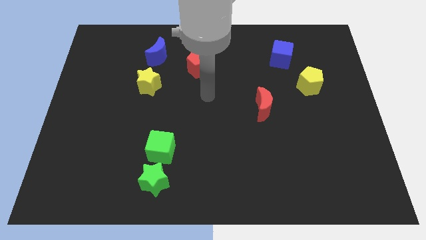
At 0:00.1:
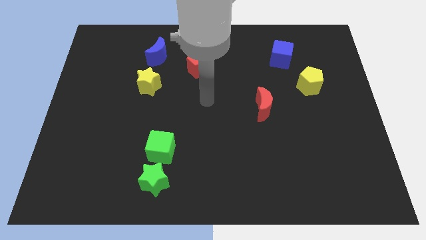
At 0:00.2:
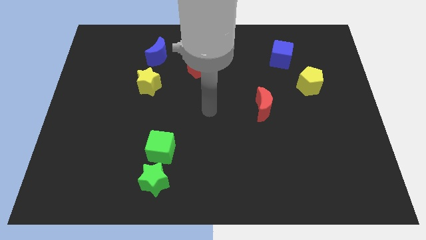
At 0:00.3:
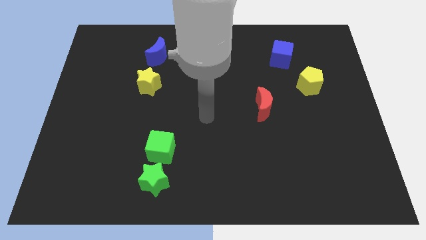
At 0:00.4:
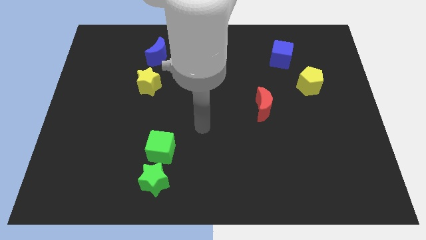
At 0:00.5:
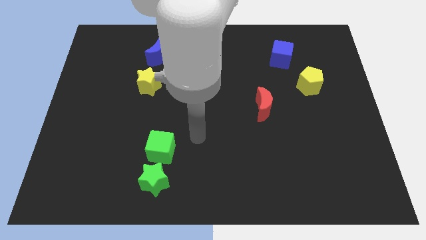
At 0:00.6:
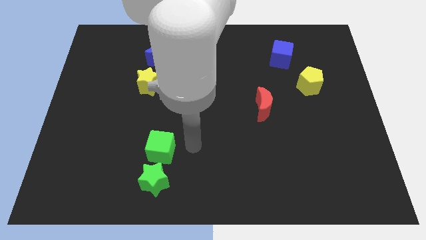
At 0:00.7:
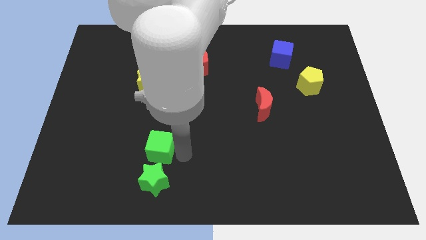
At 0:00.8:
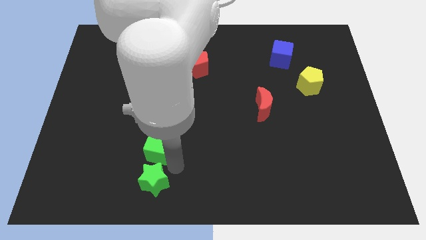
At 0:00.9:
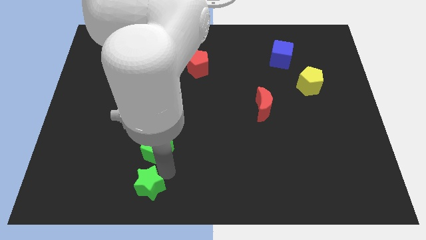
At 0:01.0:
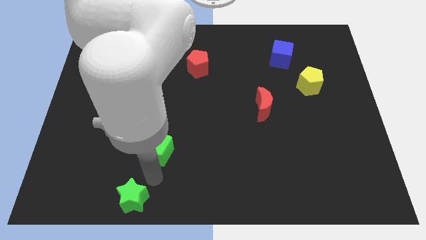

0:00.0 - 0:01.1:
pull the green cube apart from the green star

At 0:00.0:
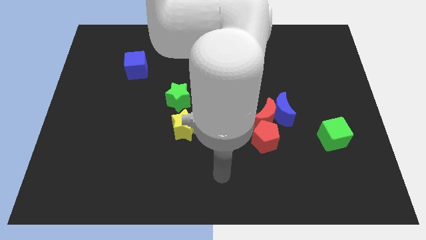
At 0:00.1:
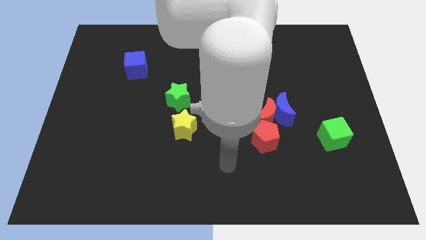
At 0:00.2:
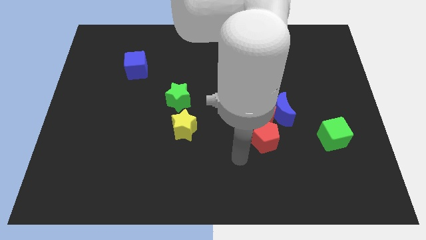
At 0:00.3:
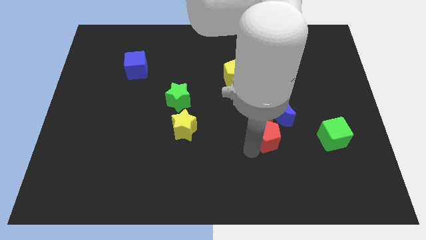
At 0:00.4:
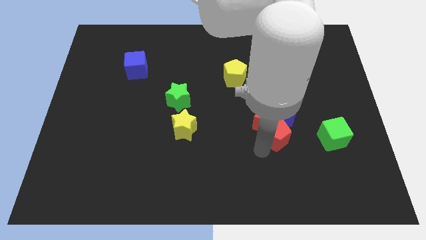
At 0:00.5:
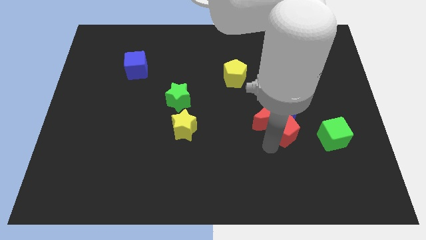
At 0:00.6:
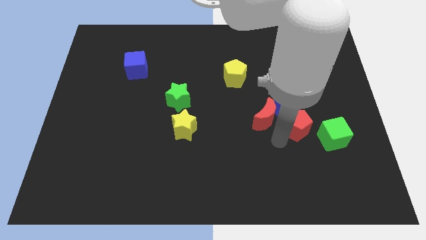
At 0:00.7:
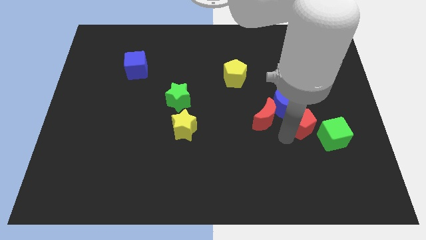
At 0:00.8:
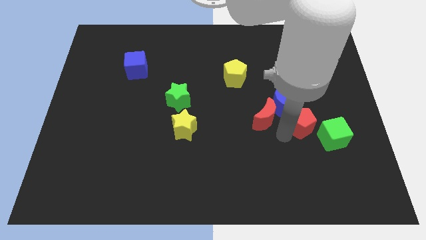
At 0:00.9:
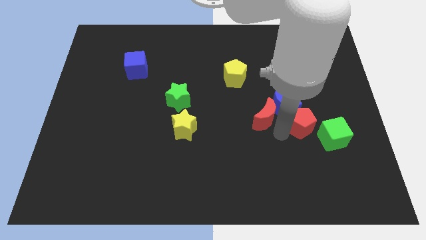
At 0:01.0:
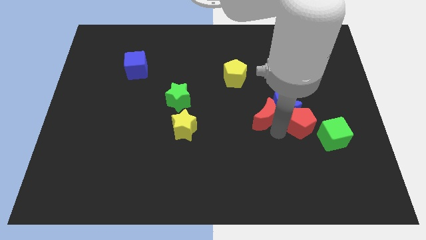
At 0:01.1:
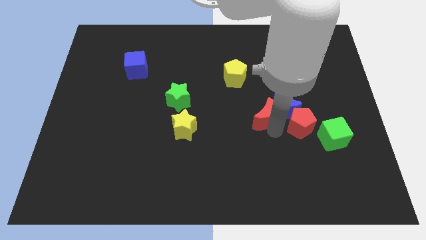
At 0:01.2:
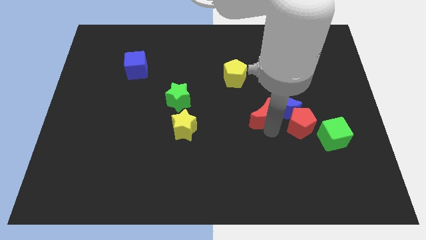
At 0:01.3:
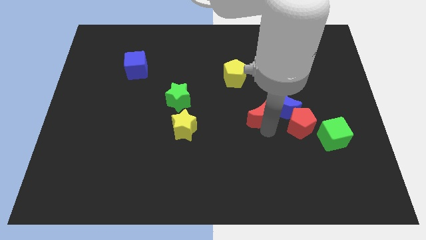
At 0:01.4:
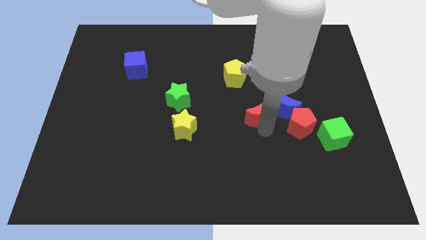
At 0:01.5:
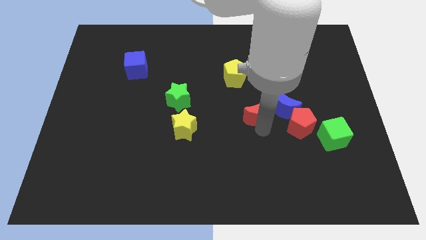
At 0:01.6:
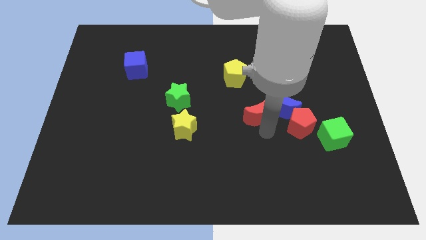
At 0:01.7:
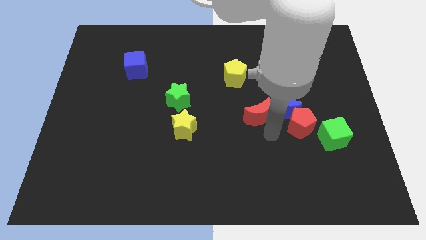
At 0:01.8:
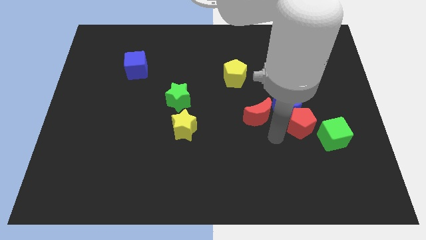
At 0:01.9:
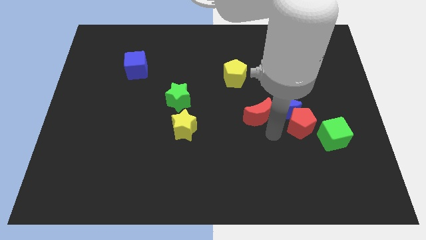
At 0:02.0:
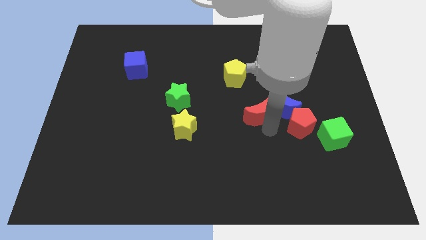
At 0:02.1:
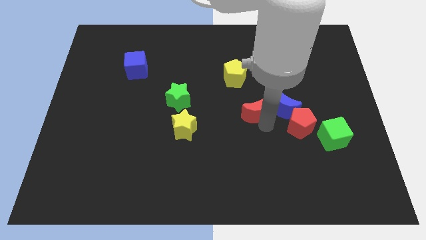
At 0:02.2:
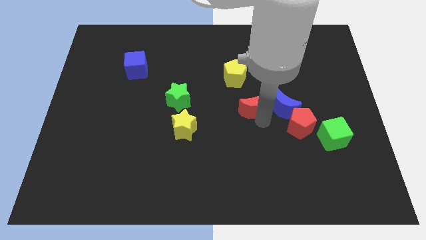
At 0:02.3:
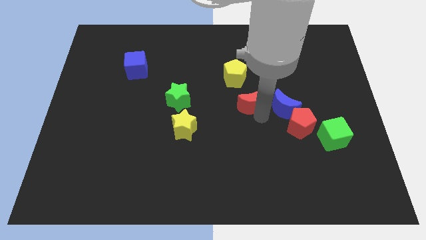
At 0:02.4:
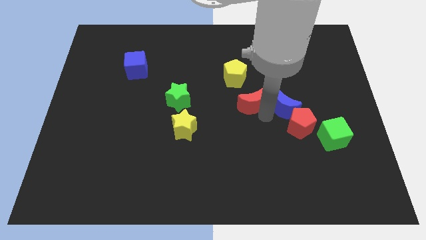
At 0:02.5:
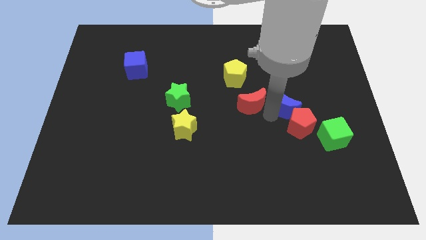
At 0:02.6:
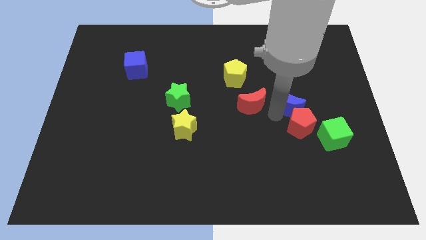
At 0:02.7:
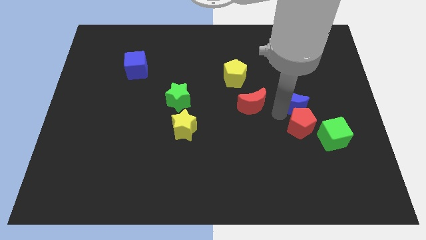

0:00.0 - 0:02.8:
separate the red moon from the blue moon and red pentagon

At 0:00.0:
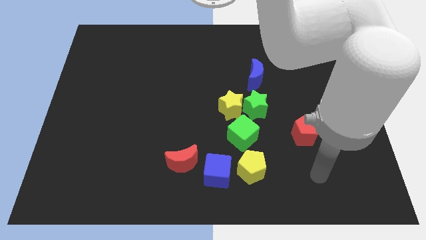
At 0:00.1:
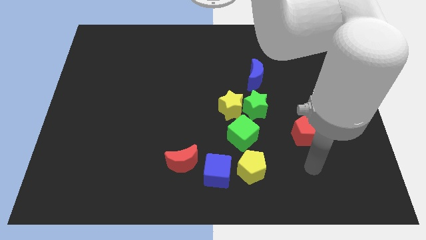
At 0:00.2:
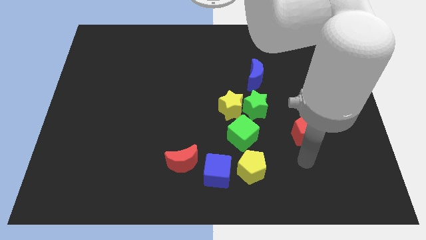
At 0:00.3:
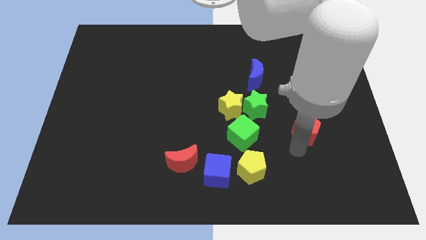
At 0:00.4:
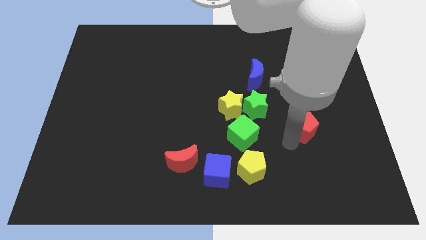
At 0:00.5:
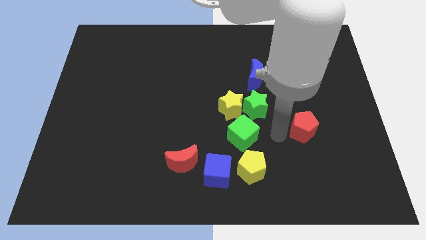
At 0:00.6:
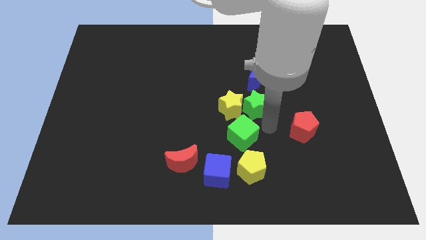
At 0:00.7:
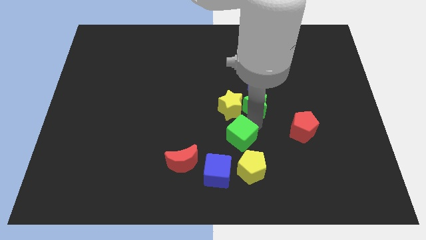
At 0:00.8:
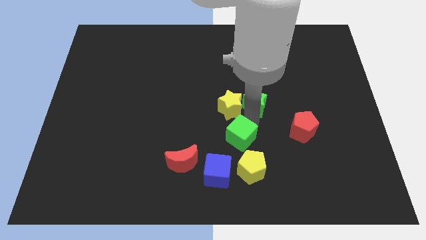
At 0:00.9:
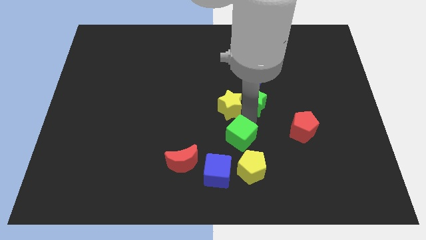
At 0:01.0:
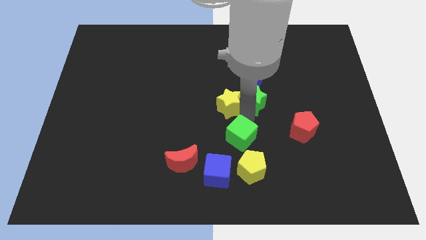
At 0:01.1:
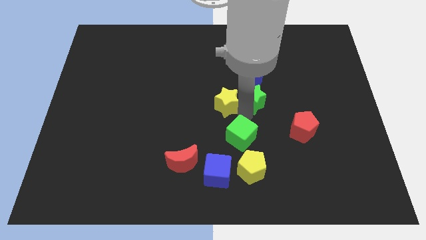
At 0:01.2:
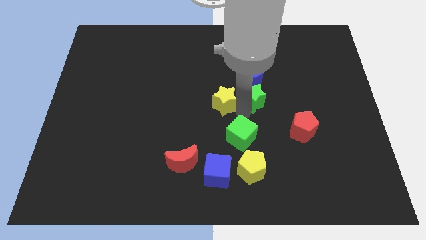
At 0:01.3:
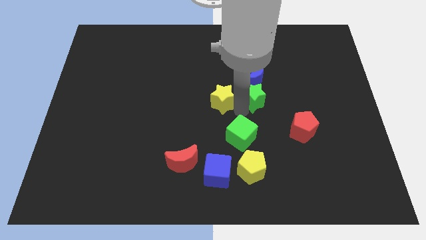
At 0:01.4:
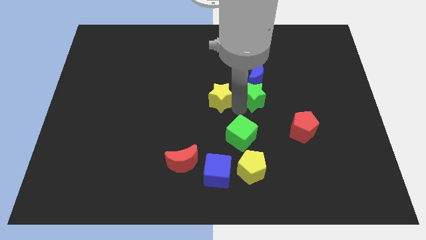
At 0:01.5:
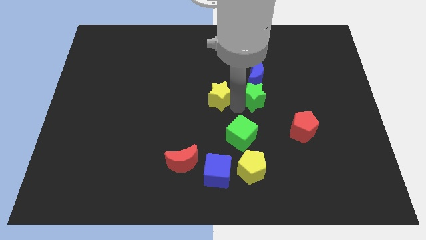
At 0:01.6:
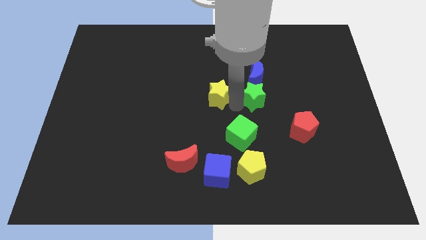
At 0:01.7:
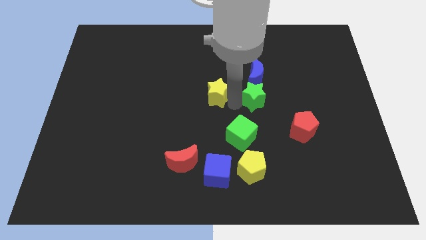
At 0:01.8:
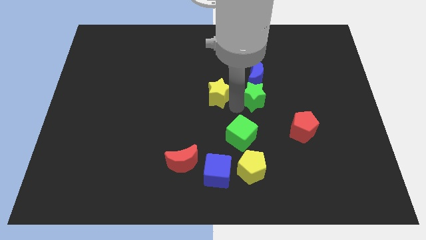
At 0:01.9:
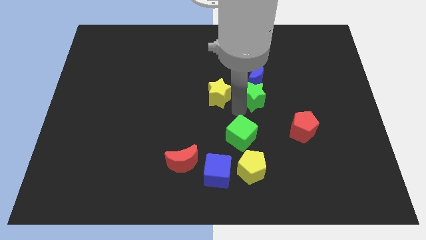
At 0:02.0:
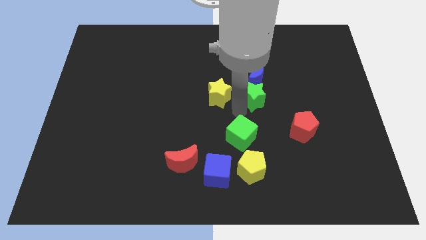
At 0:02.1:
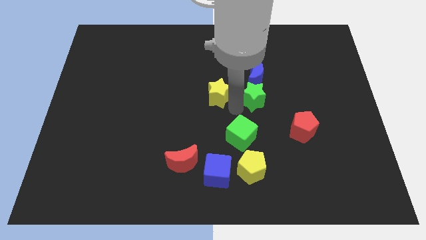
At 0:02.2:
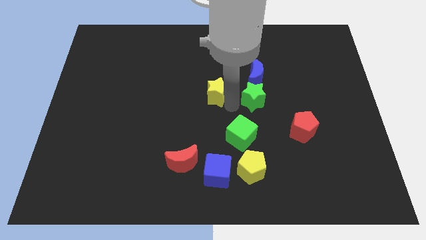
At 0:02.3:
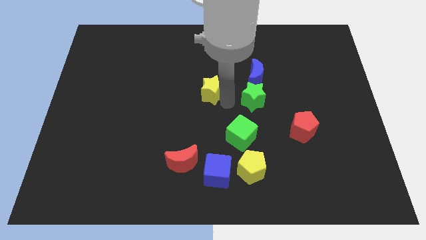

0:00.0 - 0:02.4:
pull the yellow star apart from the green star and green cube

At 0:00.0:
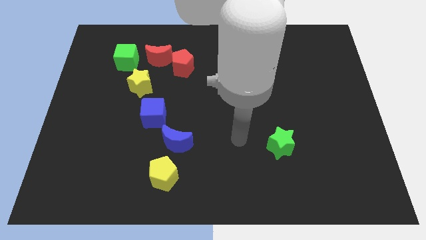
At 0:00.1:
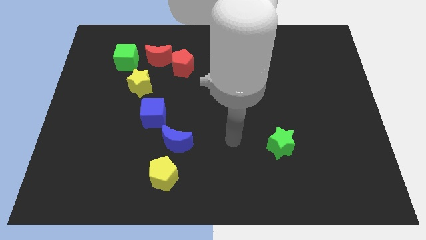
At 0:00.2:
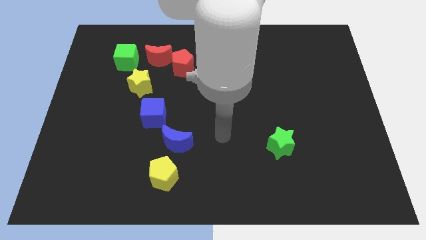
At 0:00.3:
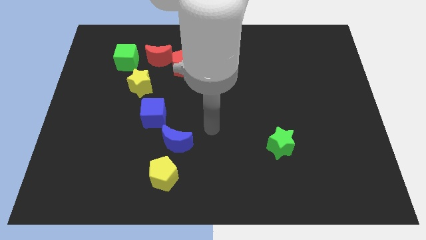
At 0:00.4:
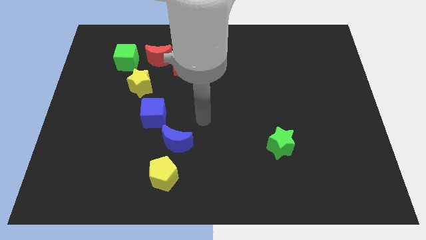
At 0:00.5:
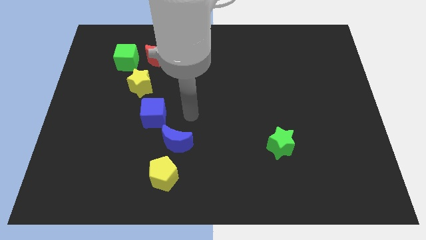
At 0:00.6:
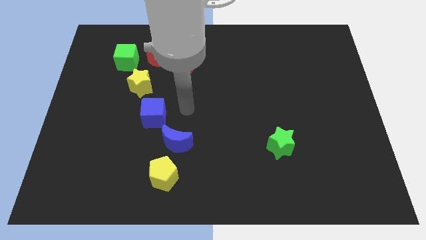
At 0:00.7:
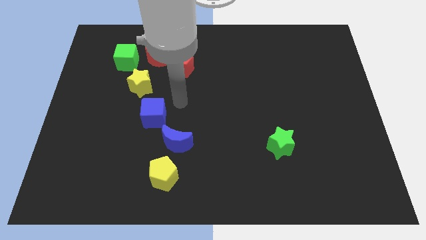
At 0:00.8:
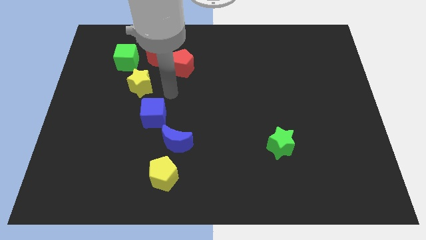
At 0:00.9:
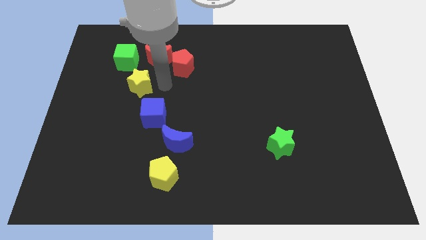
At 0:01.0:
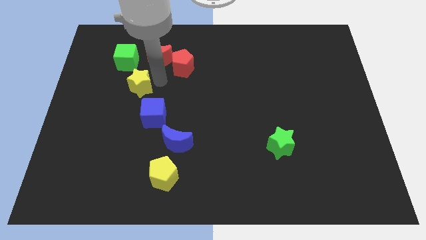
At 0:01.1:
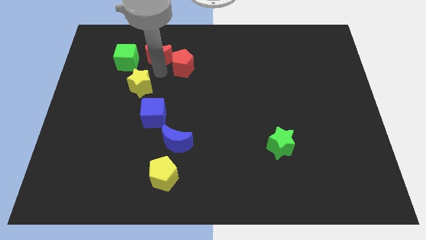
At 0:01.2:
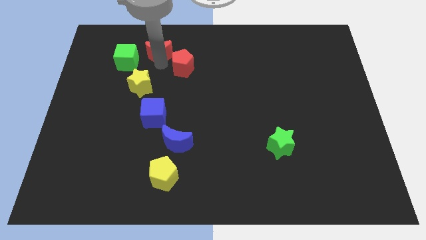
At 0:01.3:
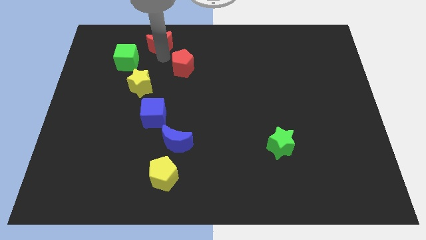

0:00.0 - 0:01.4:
pull the red pentagon apart from the red moon

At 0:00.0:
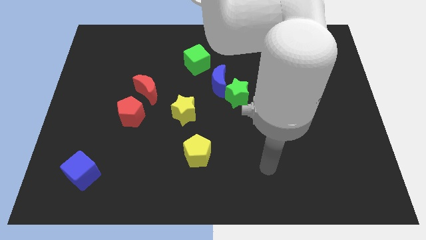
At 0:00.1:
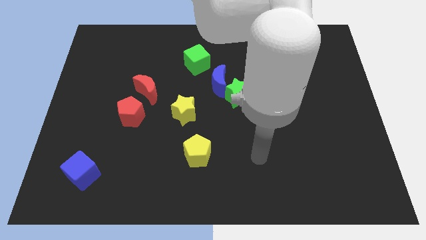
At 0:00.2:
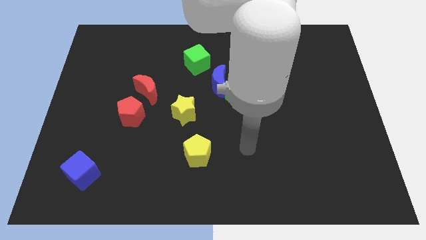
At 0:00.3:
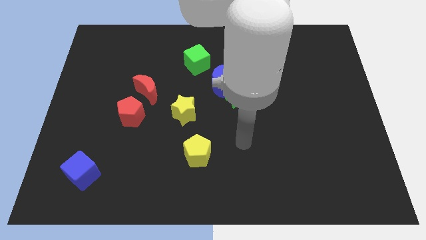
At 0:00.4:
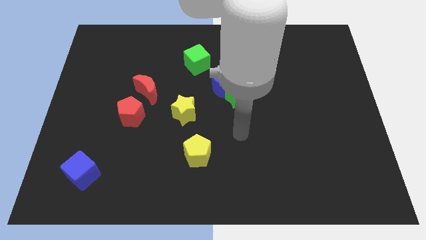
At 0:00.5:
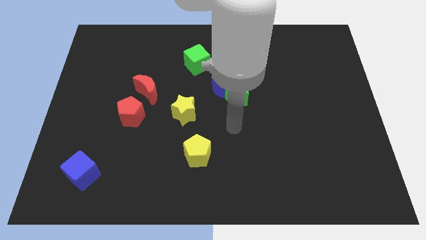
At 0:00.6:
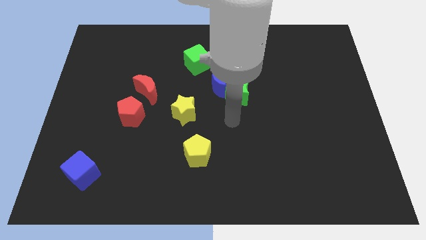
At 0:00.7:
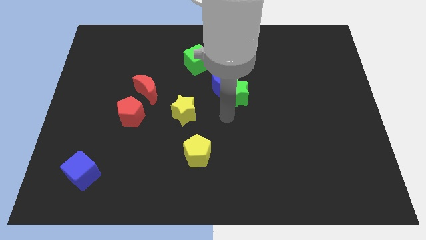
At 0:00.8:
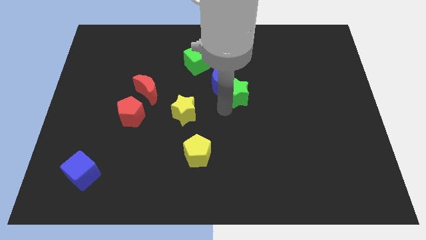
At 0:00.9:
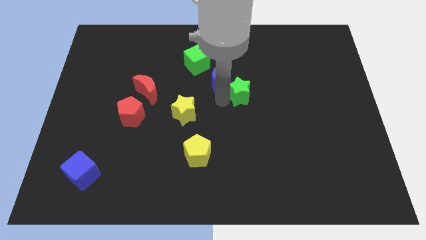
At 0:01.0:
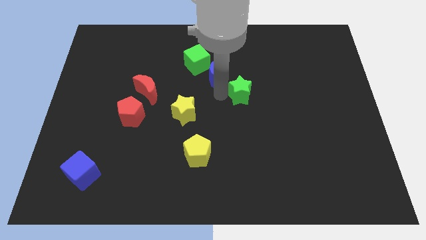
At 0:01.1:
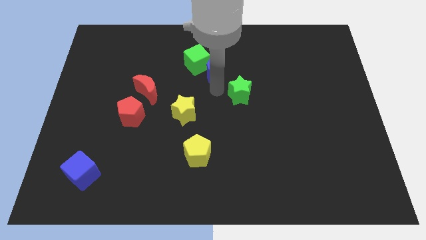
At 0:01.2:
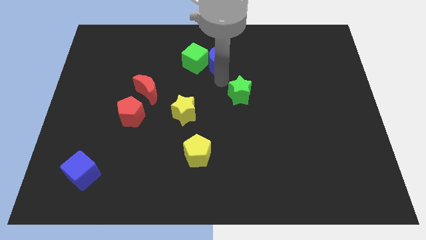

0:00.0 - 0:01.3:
move the green star away from the blue moon

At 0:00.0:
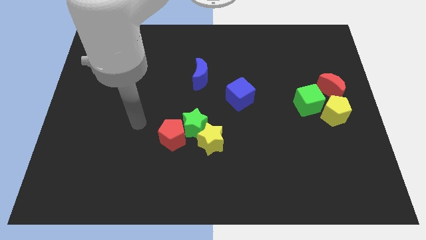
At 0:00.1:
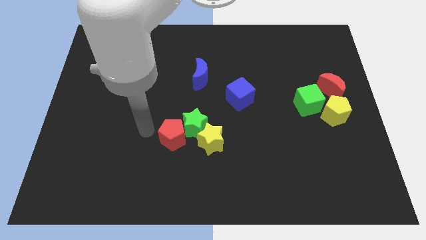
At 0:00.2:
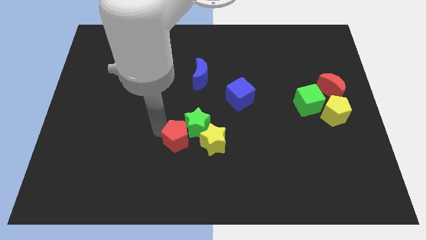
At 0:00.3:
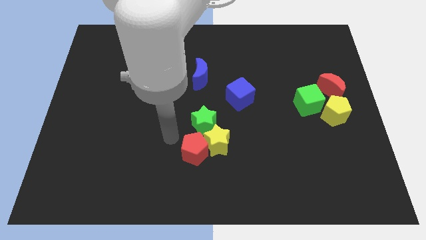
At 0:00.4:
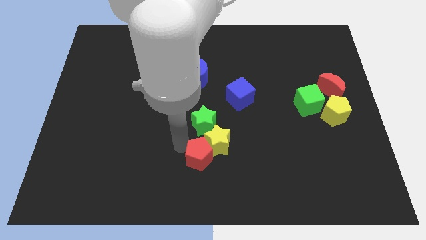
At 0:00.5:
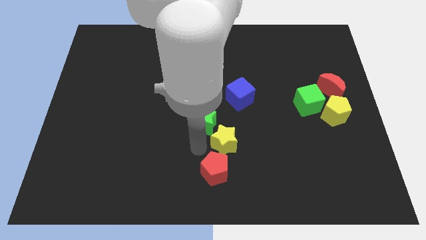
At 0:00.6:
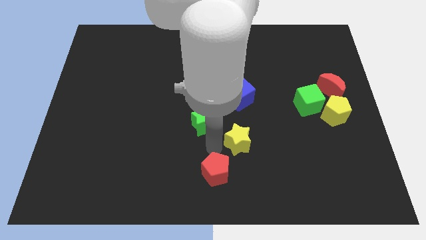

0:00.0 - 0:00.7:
separate the green star from the red pentagon and yellow star
